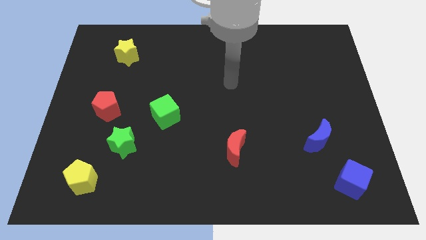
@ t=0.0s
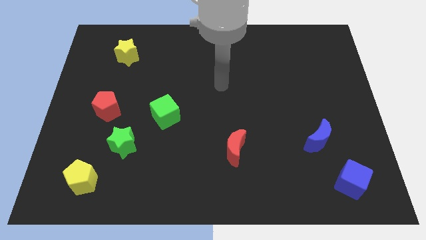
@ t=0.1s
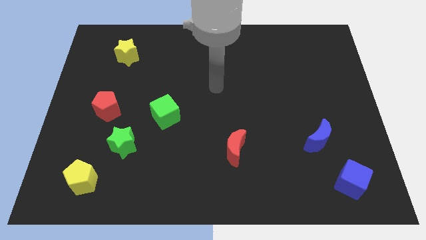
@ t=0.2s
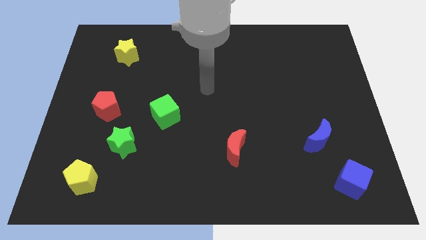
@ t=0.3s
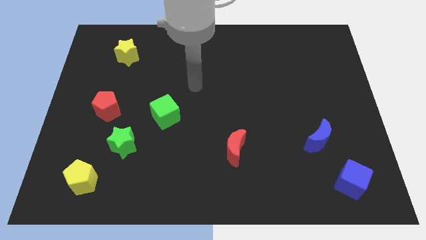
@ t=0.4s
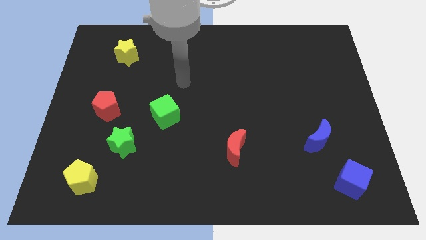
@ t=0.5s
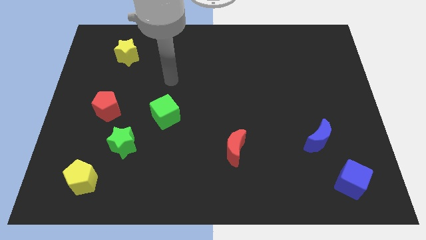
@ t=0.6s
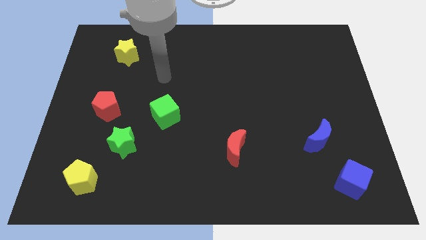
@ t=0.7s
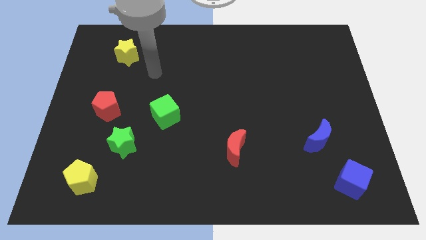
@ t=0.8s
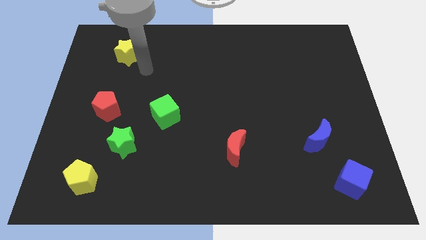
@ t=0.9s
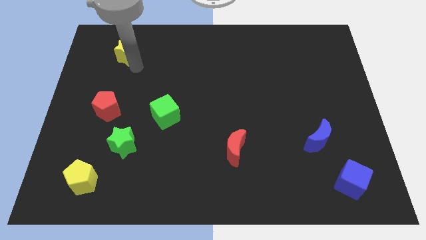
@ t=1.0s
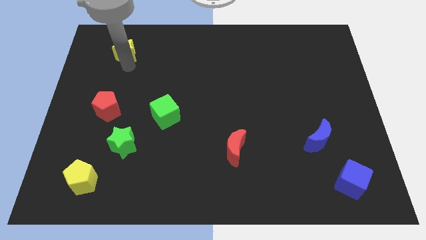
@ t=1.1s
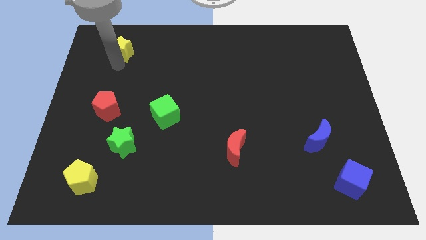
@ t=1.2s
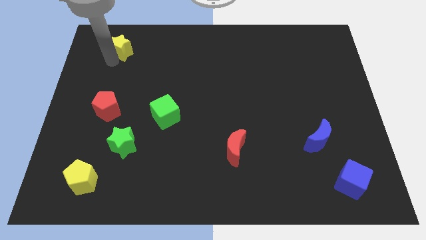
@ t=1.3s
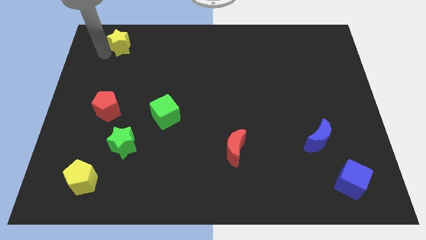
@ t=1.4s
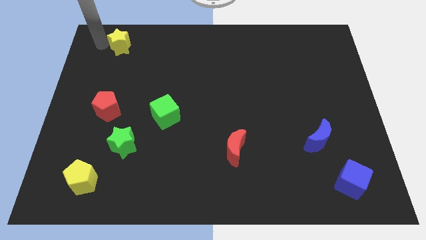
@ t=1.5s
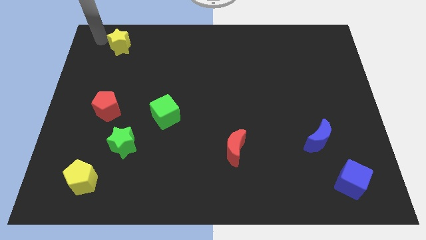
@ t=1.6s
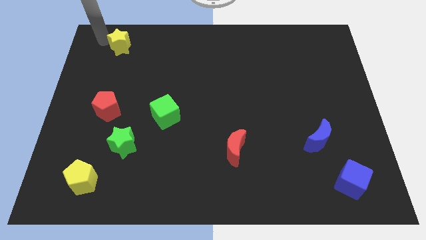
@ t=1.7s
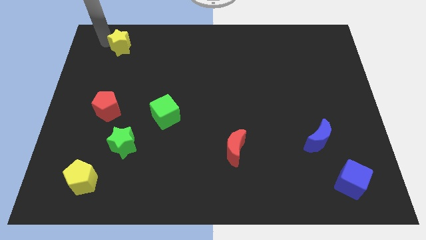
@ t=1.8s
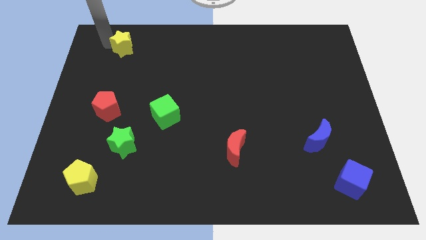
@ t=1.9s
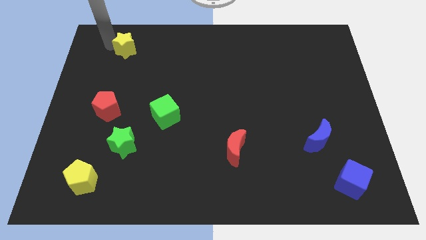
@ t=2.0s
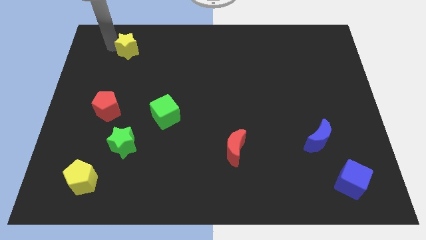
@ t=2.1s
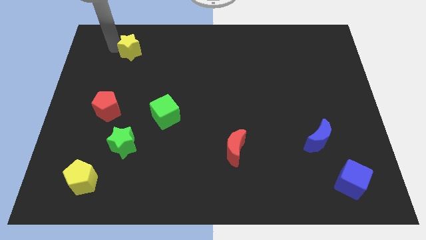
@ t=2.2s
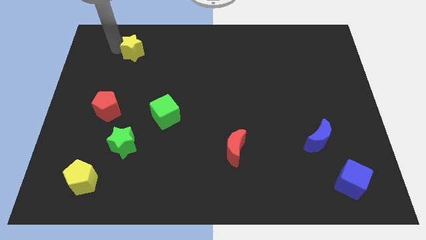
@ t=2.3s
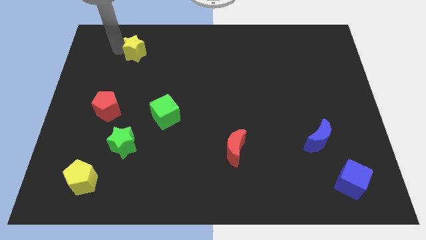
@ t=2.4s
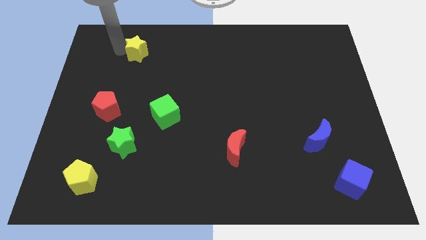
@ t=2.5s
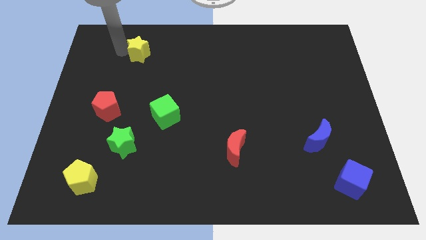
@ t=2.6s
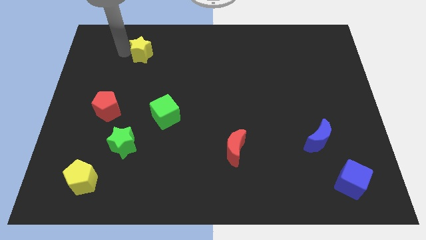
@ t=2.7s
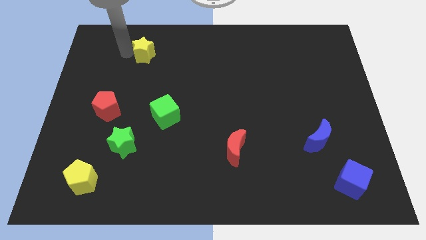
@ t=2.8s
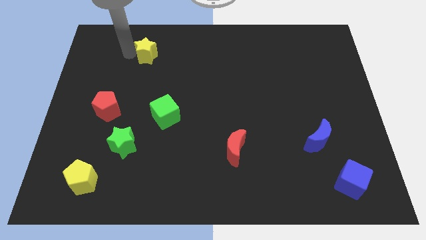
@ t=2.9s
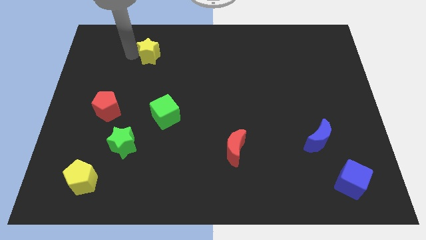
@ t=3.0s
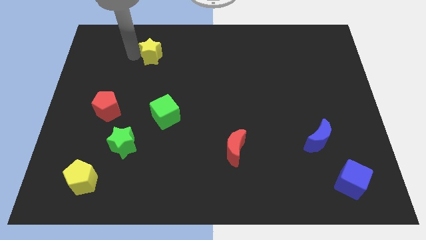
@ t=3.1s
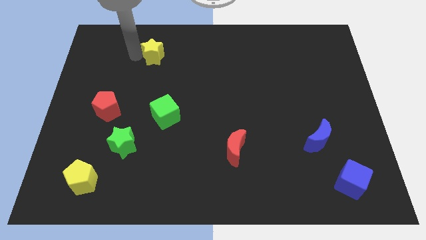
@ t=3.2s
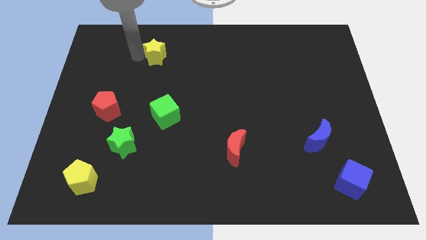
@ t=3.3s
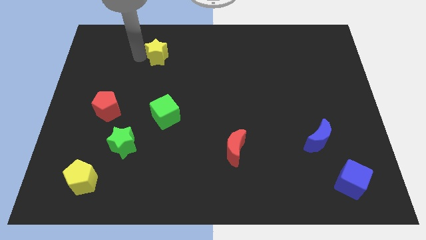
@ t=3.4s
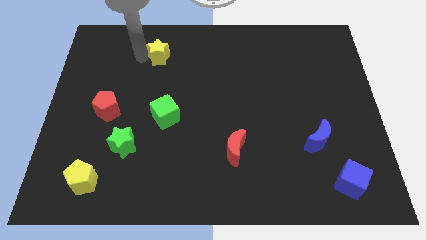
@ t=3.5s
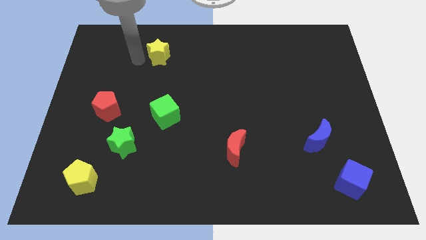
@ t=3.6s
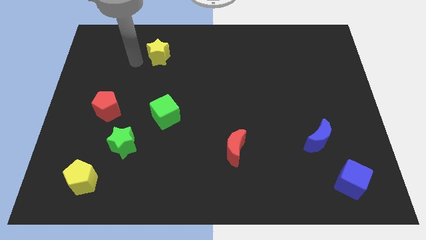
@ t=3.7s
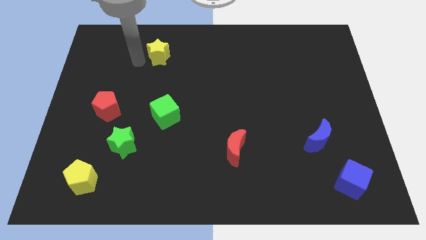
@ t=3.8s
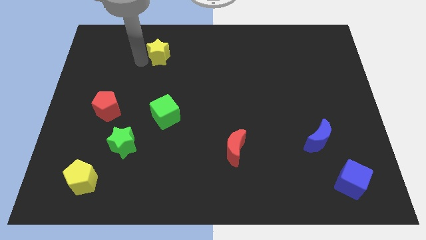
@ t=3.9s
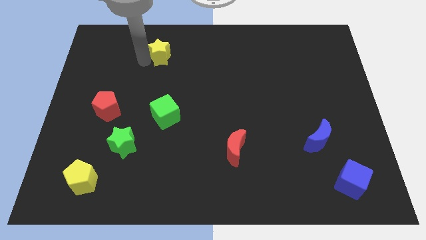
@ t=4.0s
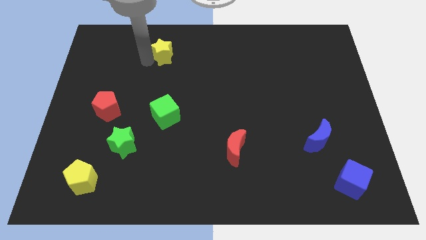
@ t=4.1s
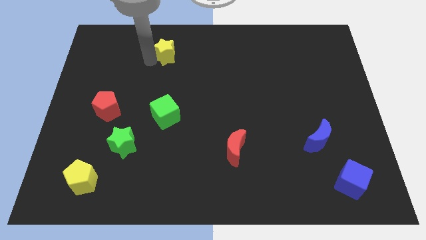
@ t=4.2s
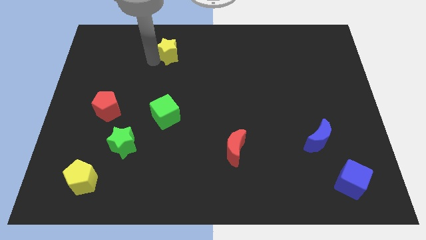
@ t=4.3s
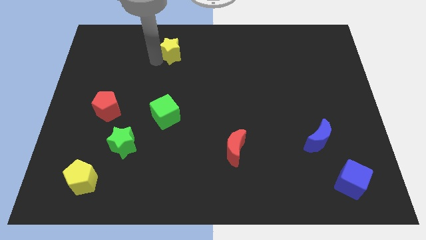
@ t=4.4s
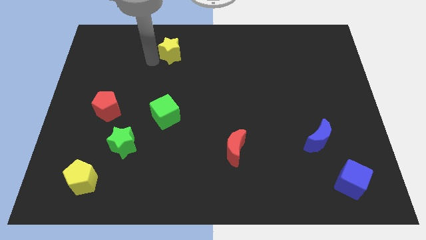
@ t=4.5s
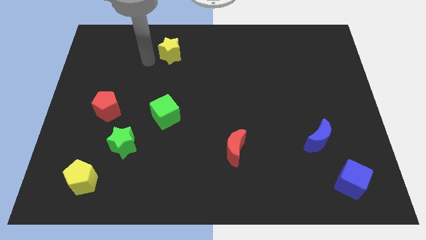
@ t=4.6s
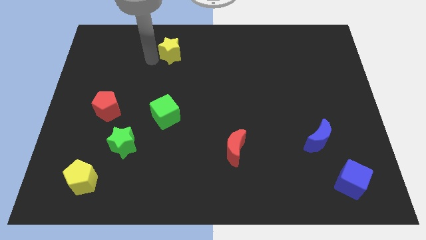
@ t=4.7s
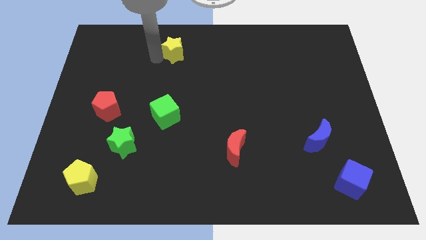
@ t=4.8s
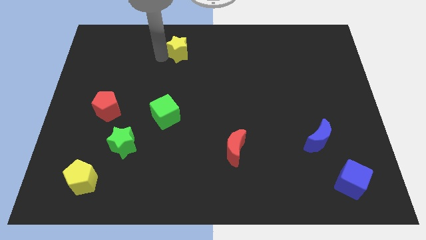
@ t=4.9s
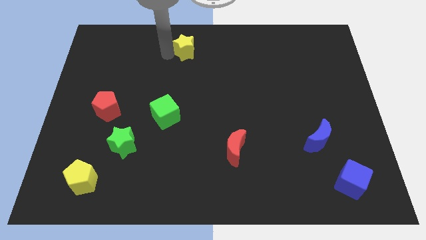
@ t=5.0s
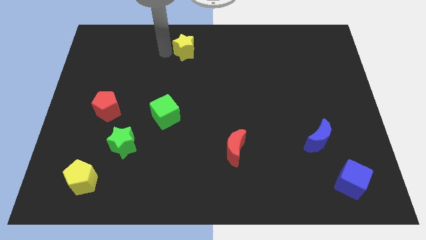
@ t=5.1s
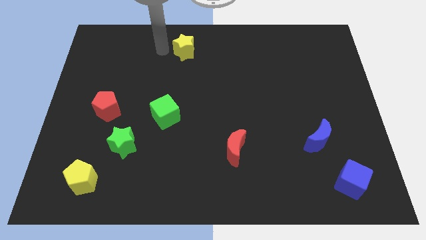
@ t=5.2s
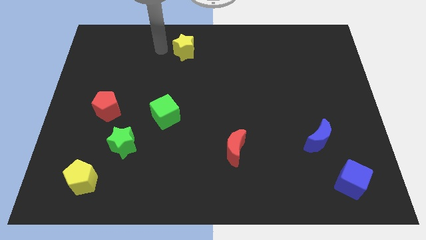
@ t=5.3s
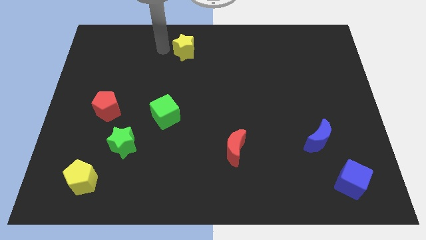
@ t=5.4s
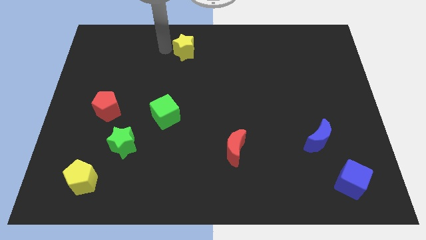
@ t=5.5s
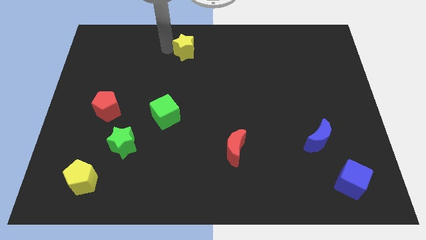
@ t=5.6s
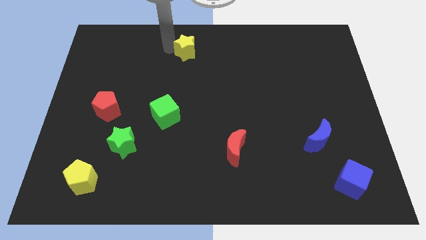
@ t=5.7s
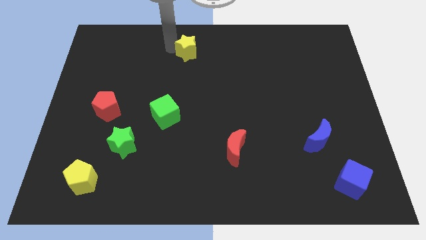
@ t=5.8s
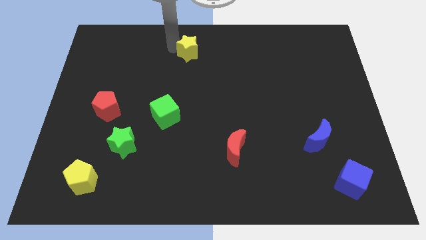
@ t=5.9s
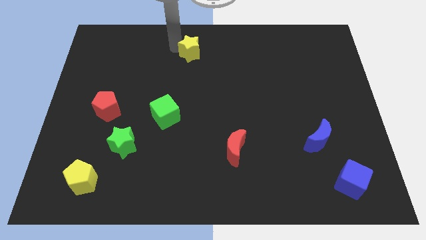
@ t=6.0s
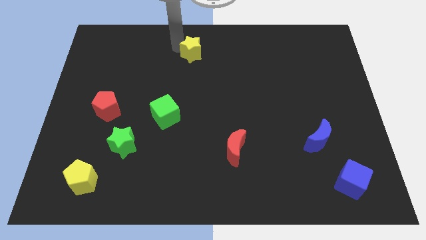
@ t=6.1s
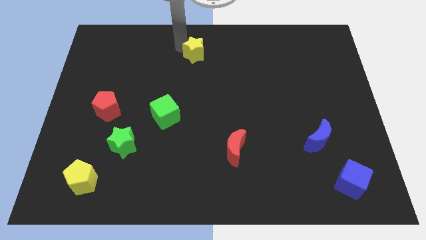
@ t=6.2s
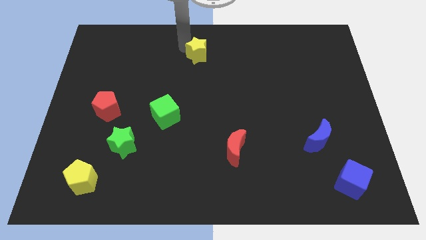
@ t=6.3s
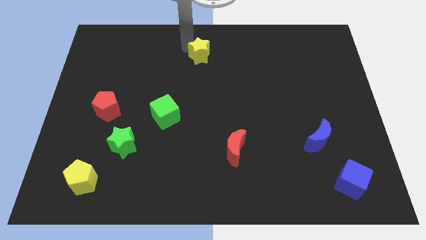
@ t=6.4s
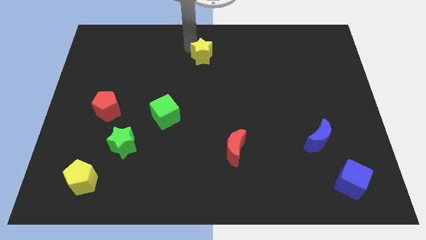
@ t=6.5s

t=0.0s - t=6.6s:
slide the yellow star to the right

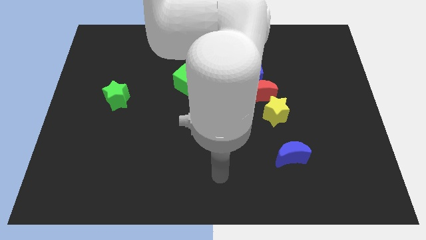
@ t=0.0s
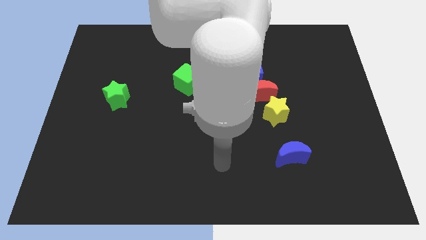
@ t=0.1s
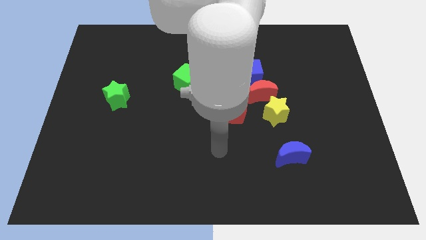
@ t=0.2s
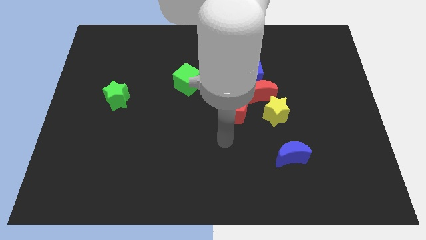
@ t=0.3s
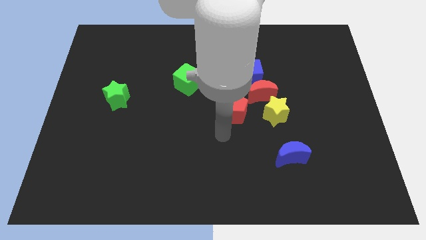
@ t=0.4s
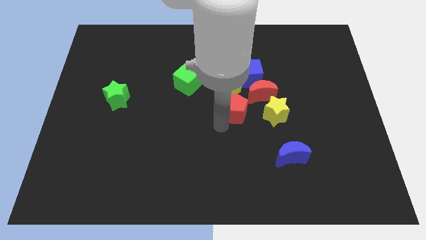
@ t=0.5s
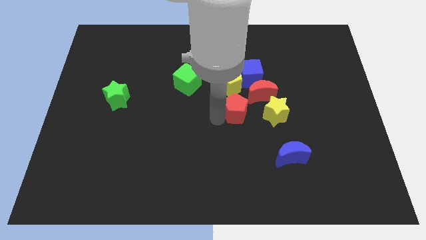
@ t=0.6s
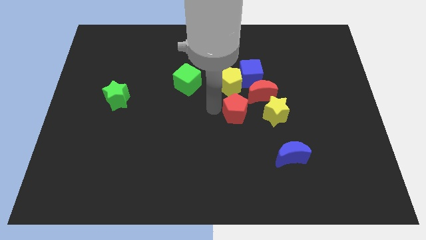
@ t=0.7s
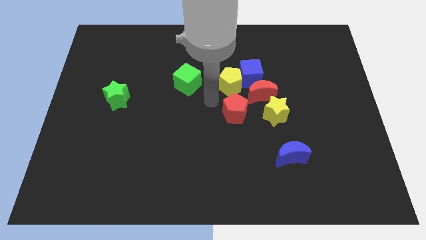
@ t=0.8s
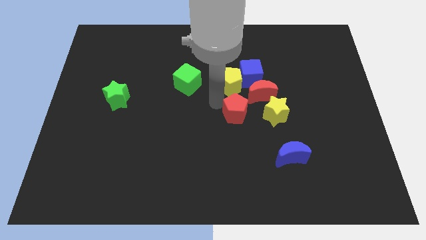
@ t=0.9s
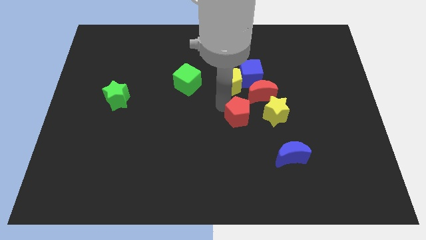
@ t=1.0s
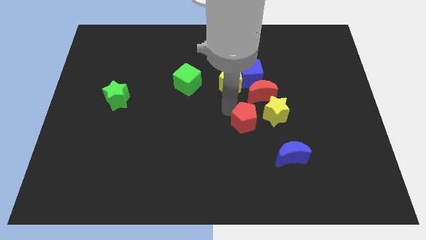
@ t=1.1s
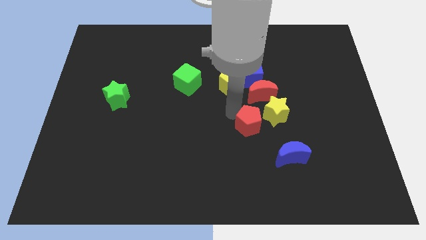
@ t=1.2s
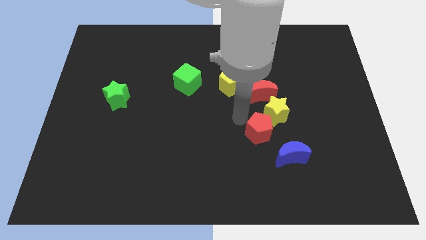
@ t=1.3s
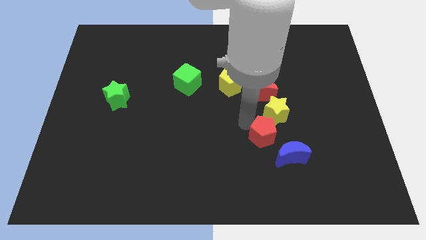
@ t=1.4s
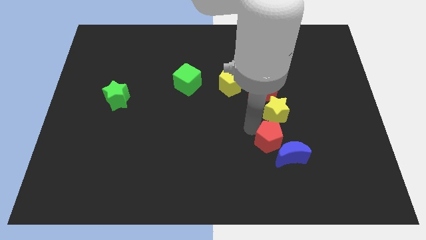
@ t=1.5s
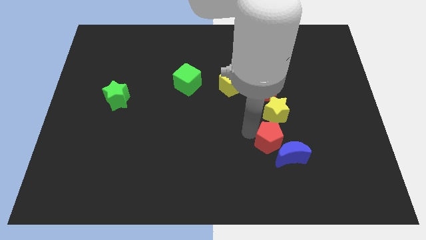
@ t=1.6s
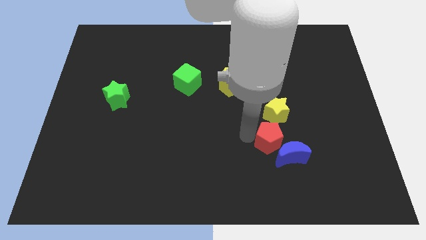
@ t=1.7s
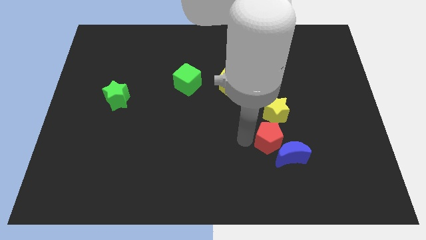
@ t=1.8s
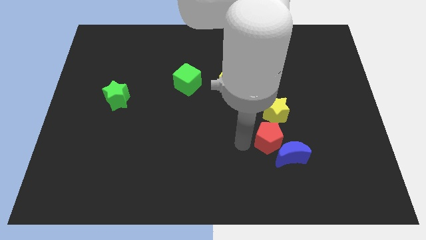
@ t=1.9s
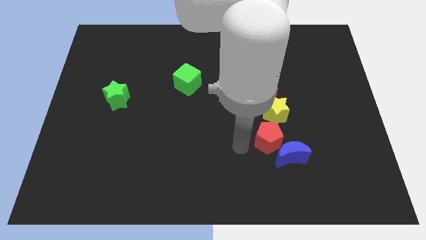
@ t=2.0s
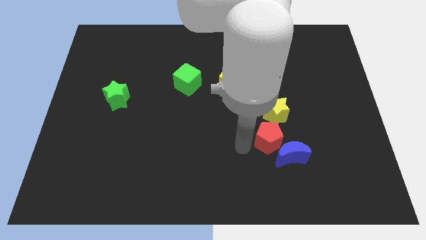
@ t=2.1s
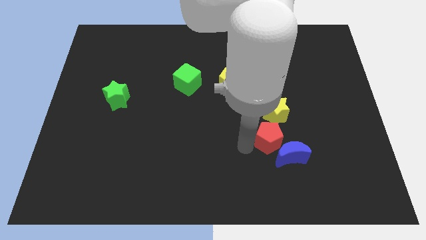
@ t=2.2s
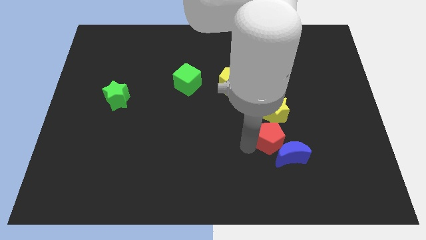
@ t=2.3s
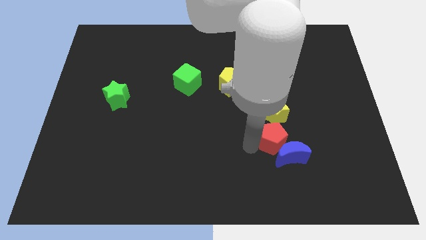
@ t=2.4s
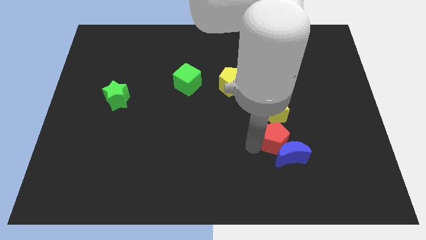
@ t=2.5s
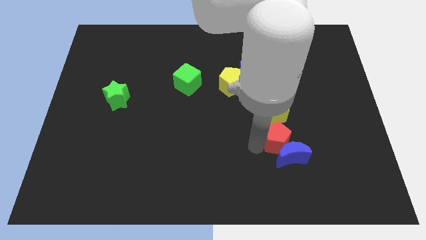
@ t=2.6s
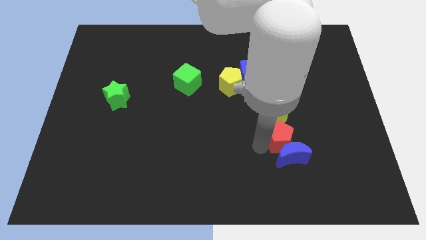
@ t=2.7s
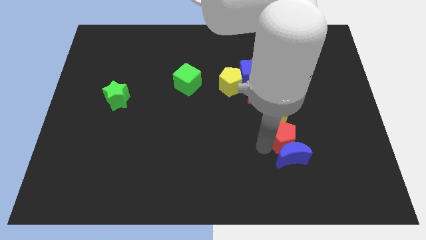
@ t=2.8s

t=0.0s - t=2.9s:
slide the red pentagon a little right
